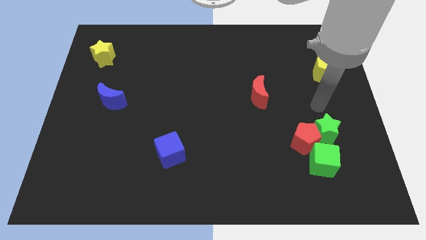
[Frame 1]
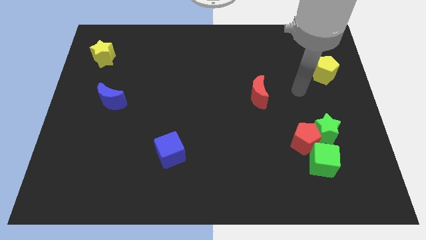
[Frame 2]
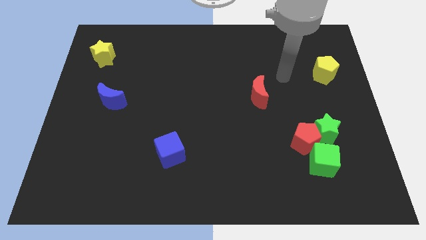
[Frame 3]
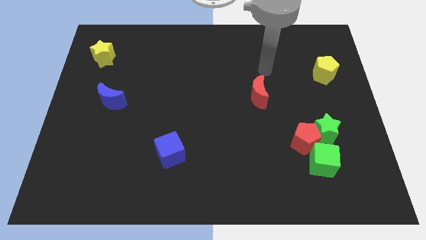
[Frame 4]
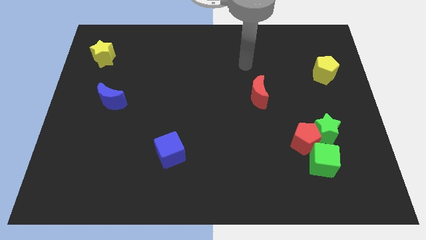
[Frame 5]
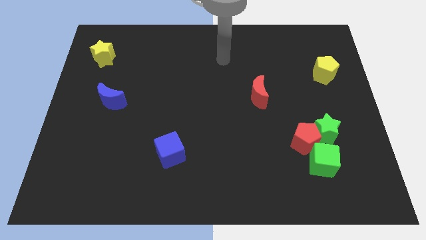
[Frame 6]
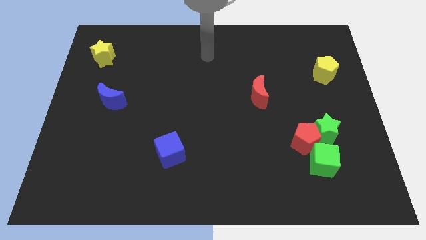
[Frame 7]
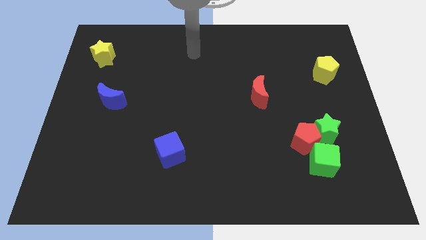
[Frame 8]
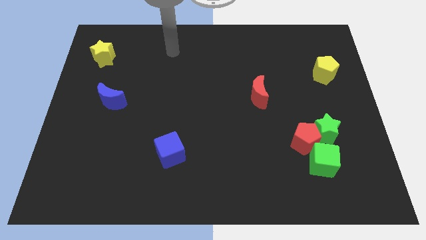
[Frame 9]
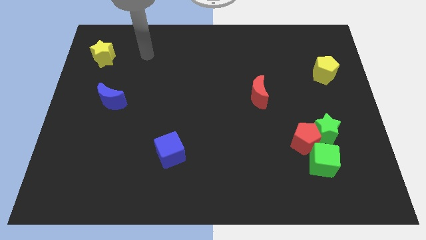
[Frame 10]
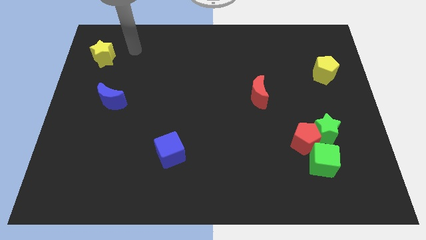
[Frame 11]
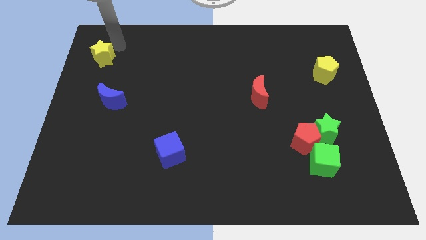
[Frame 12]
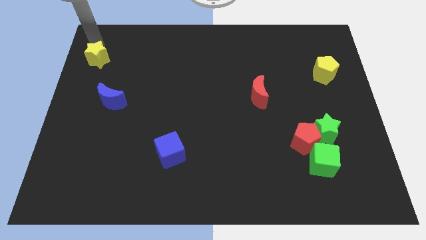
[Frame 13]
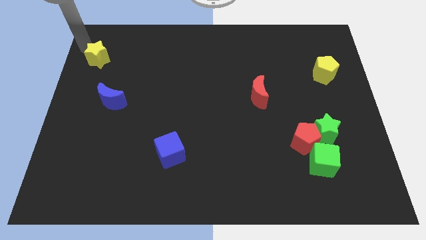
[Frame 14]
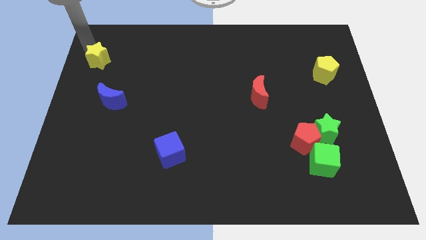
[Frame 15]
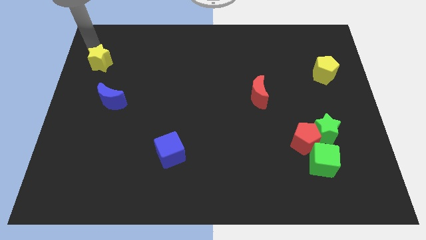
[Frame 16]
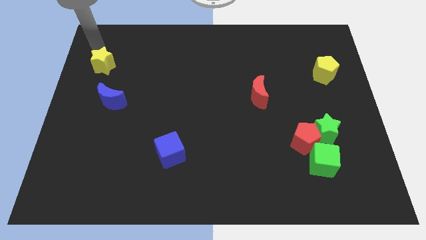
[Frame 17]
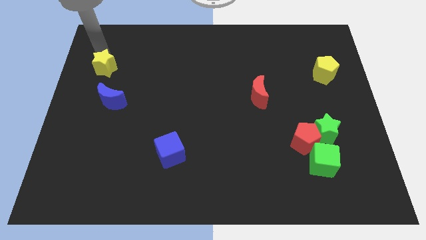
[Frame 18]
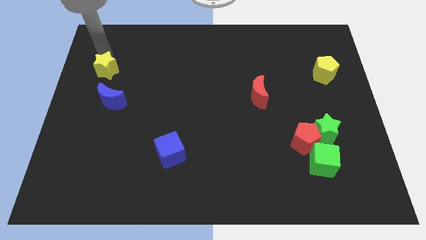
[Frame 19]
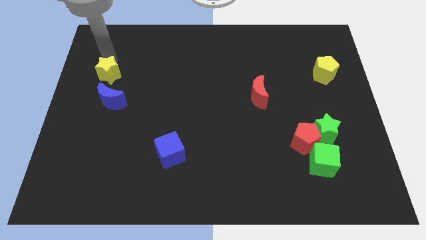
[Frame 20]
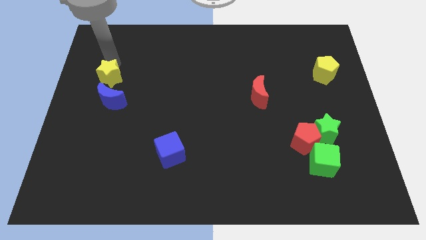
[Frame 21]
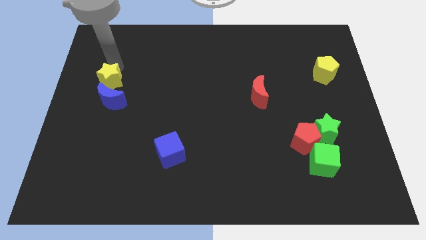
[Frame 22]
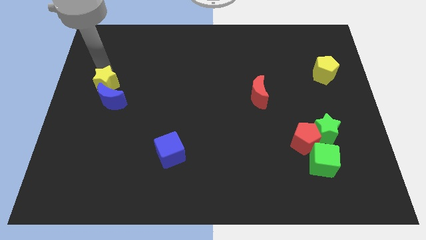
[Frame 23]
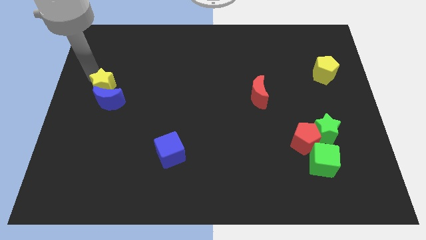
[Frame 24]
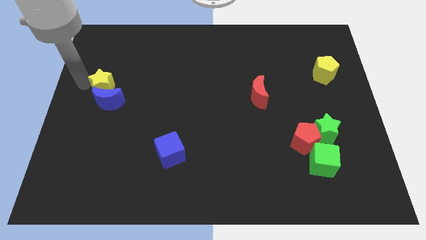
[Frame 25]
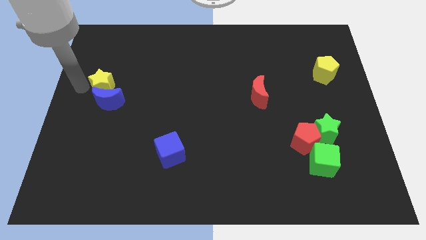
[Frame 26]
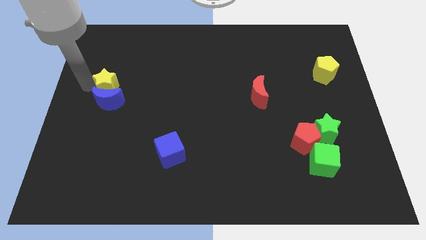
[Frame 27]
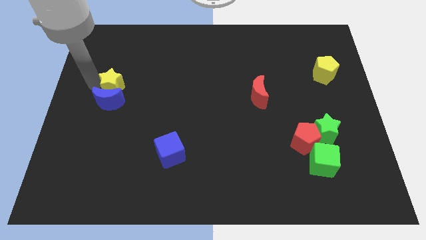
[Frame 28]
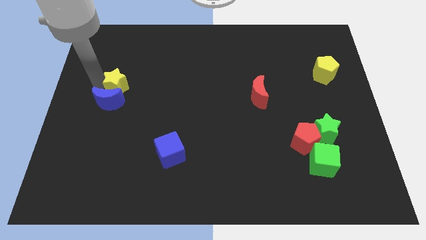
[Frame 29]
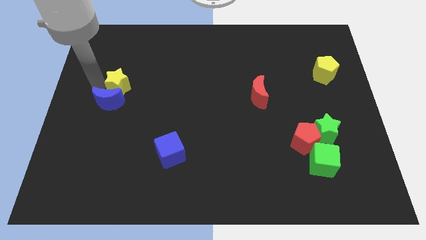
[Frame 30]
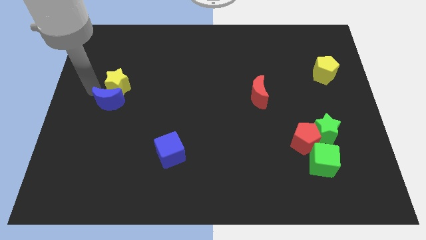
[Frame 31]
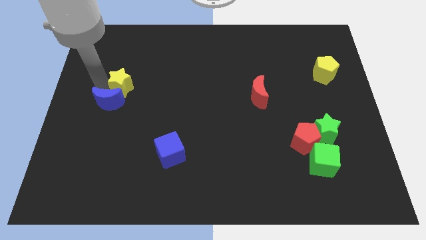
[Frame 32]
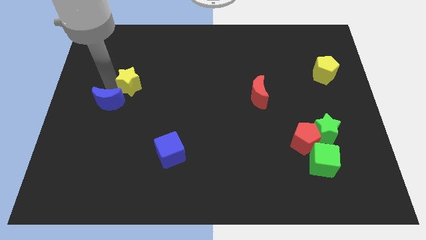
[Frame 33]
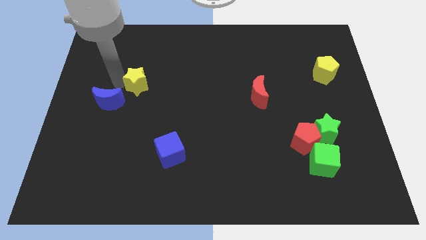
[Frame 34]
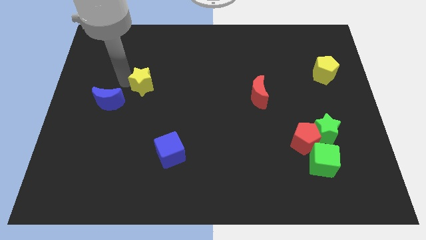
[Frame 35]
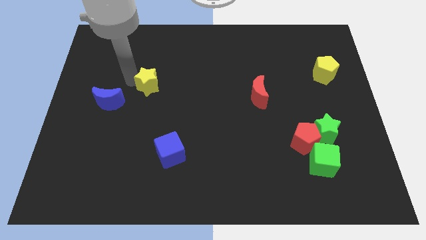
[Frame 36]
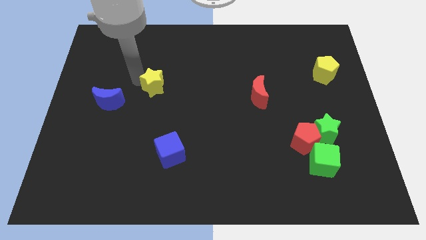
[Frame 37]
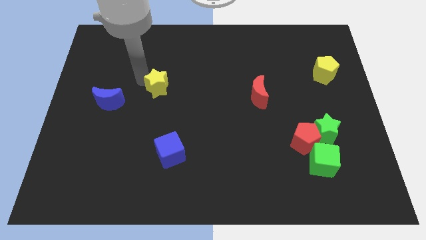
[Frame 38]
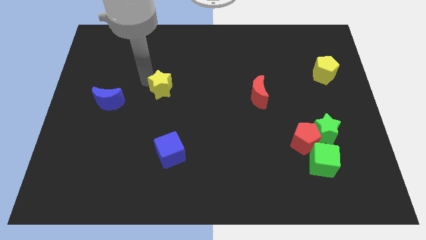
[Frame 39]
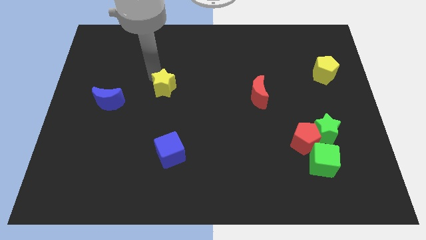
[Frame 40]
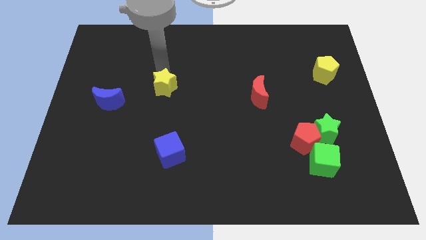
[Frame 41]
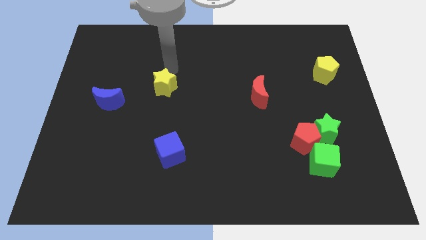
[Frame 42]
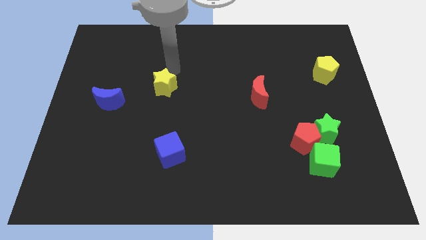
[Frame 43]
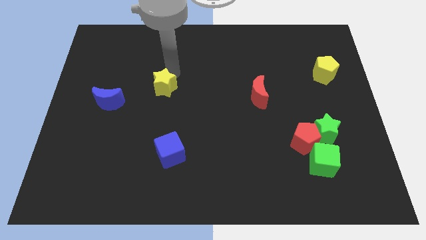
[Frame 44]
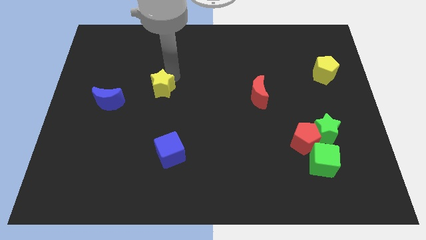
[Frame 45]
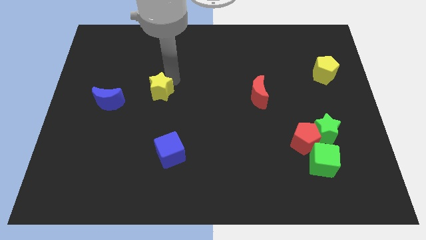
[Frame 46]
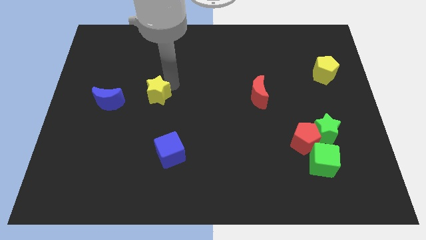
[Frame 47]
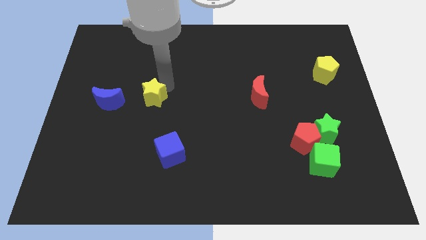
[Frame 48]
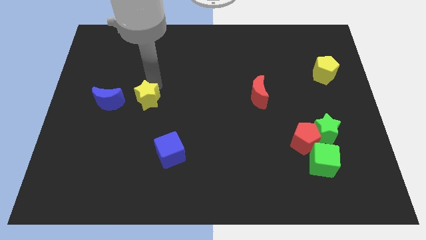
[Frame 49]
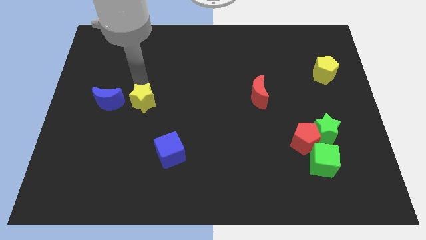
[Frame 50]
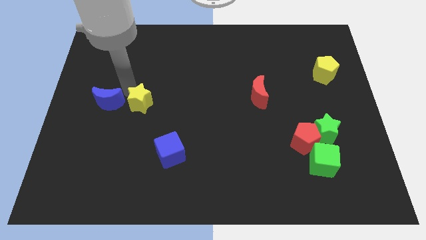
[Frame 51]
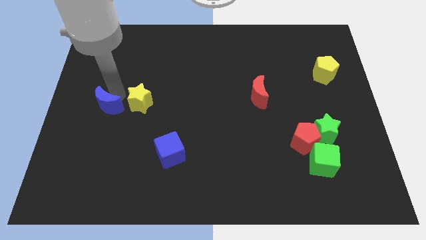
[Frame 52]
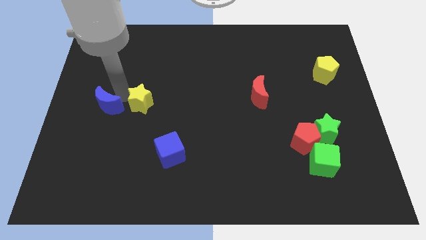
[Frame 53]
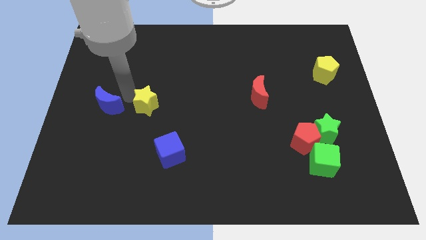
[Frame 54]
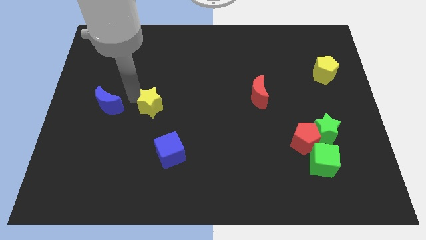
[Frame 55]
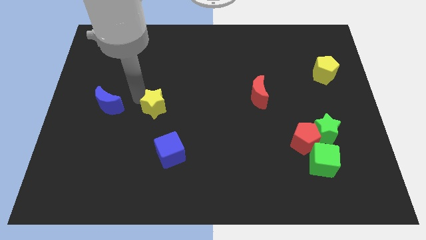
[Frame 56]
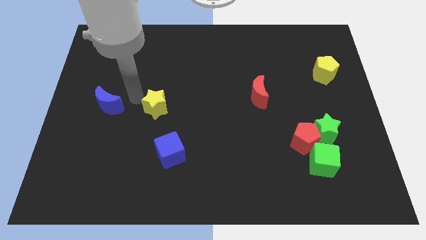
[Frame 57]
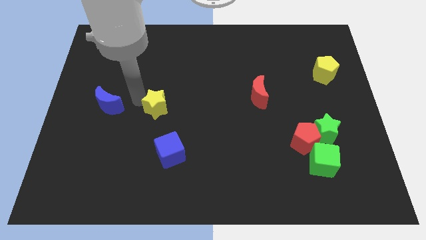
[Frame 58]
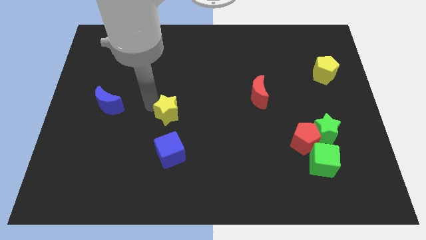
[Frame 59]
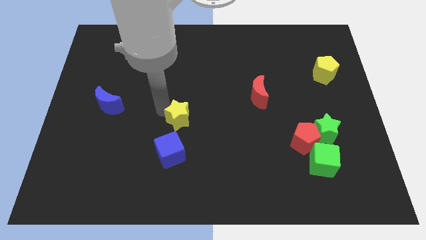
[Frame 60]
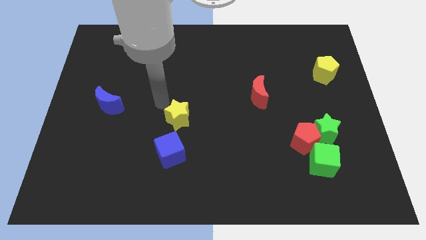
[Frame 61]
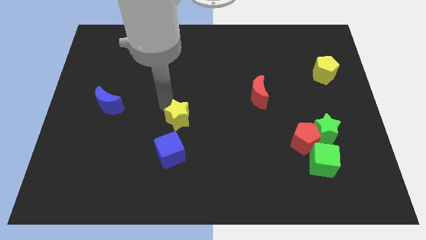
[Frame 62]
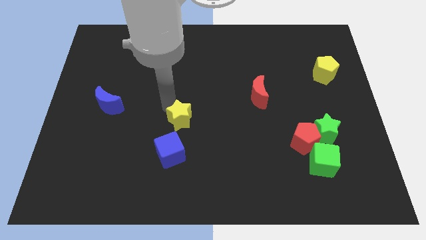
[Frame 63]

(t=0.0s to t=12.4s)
slide the yellow star to the top right of the blue cube

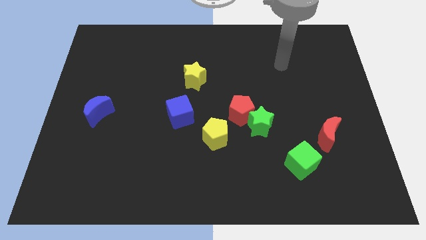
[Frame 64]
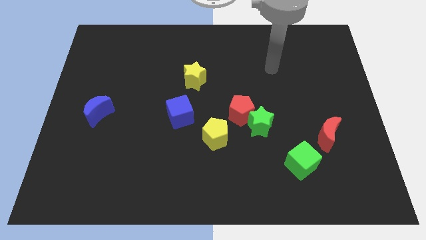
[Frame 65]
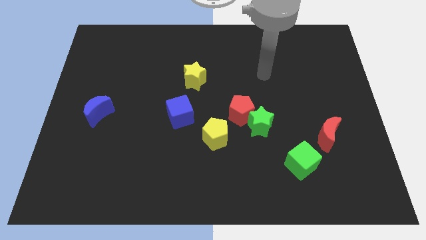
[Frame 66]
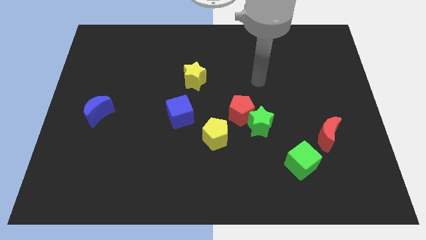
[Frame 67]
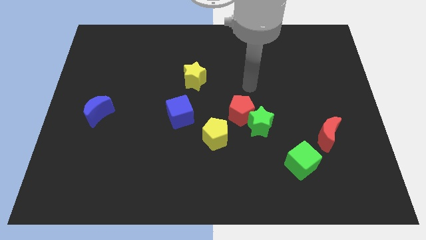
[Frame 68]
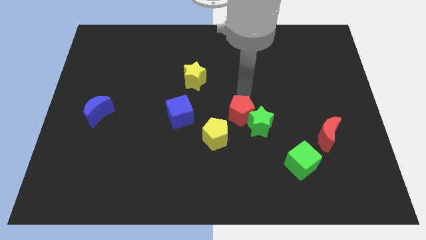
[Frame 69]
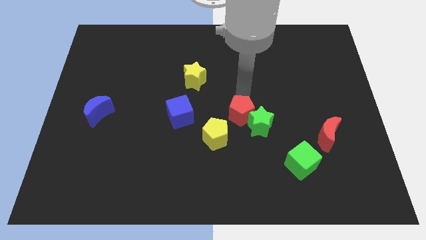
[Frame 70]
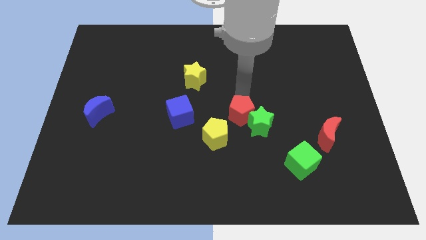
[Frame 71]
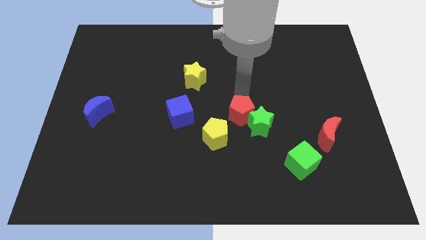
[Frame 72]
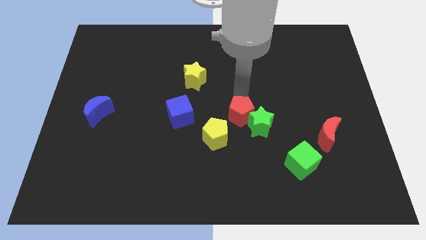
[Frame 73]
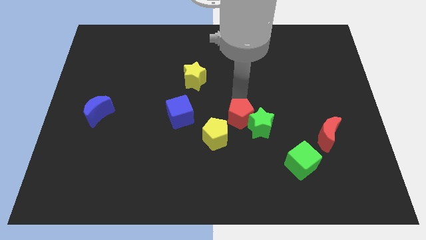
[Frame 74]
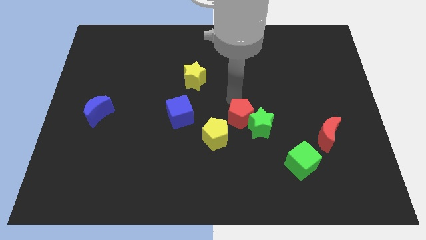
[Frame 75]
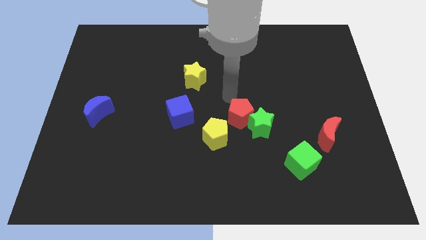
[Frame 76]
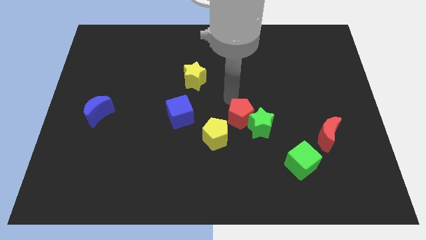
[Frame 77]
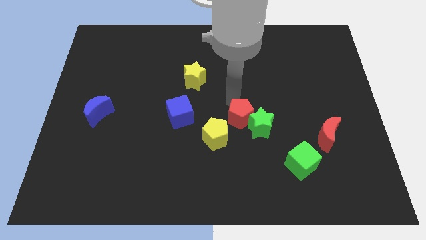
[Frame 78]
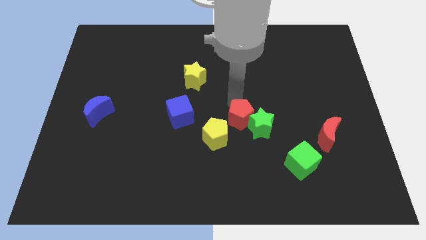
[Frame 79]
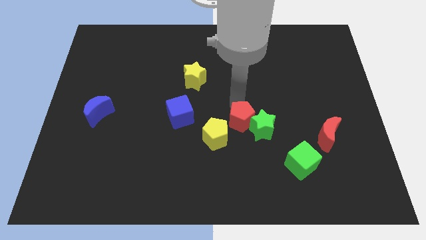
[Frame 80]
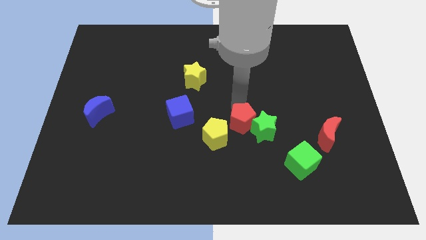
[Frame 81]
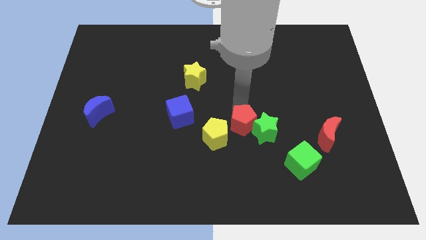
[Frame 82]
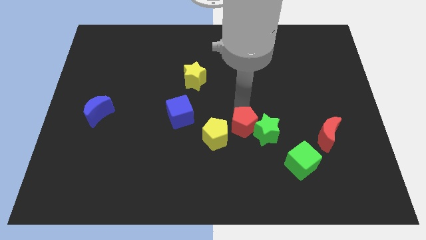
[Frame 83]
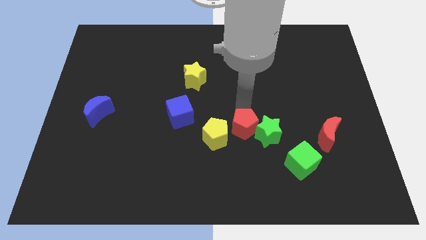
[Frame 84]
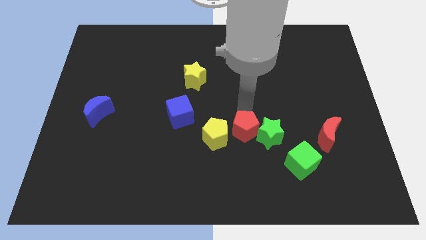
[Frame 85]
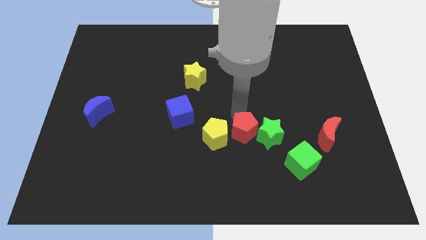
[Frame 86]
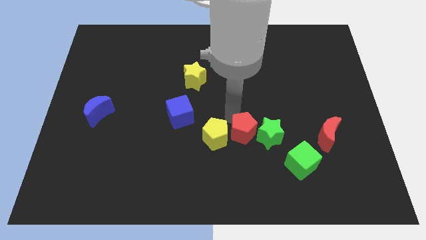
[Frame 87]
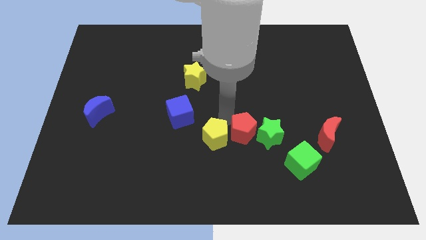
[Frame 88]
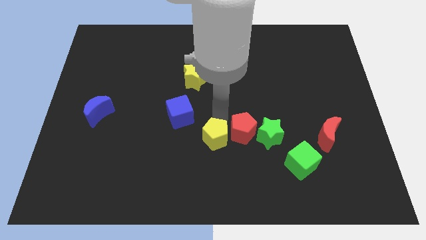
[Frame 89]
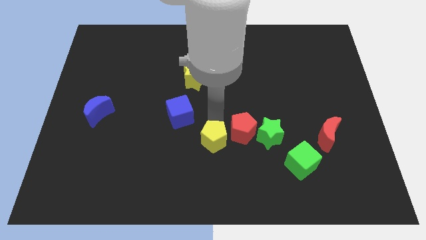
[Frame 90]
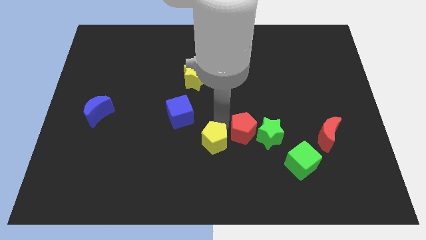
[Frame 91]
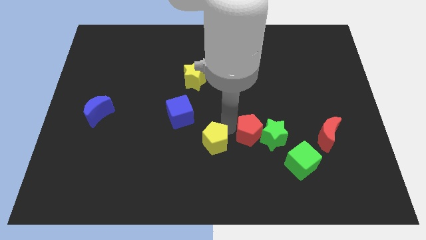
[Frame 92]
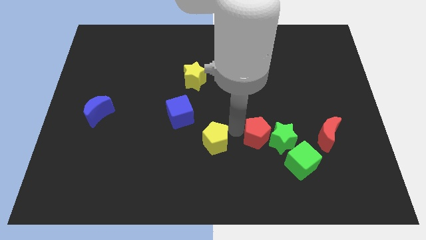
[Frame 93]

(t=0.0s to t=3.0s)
move the red pentagon to the top left of the green cube
